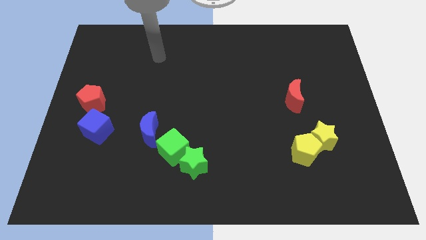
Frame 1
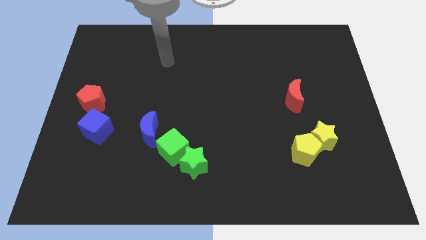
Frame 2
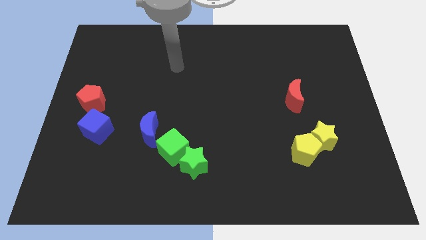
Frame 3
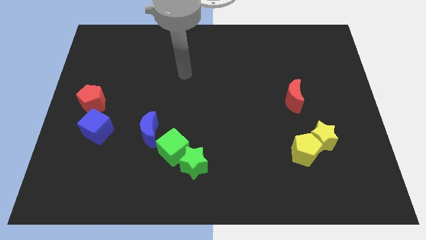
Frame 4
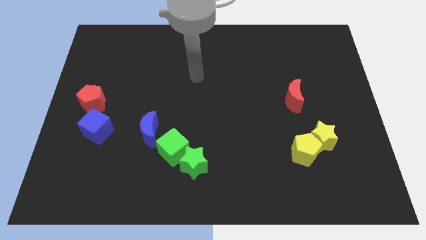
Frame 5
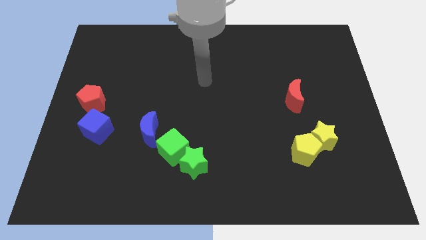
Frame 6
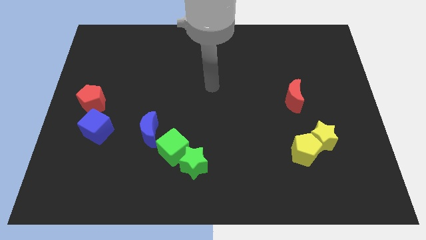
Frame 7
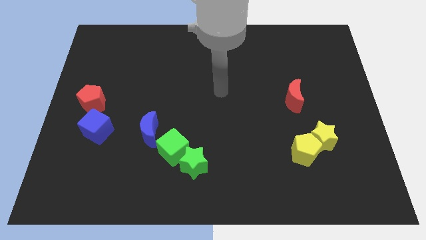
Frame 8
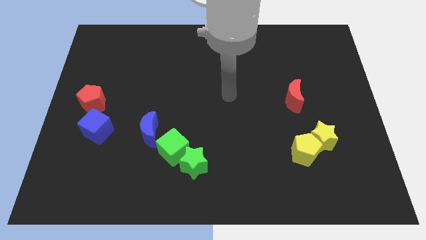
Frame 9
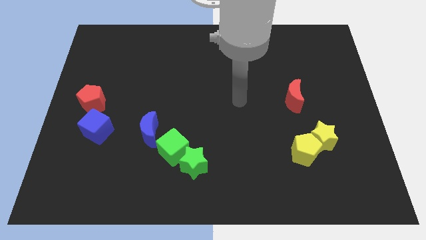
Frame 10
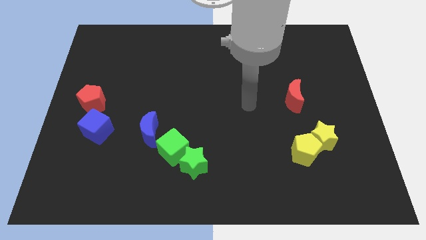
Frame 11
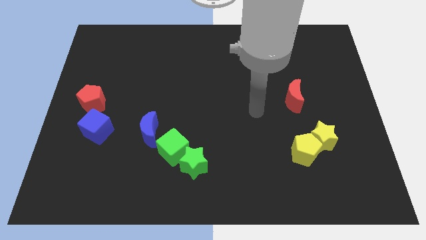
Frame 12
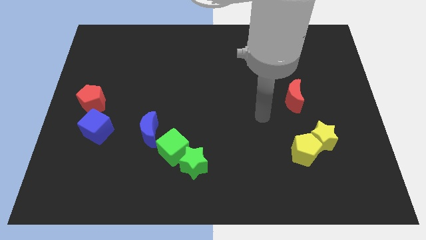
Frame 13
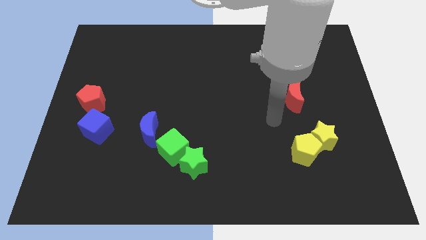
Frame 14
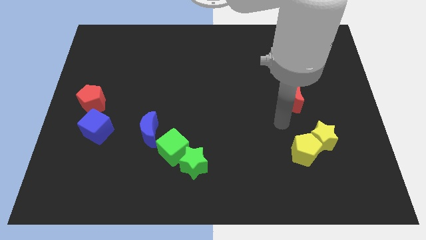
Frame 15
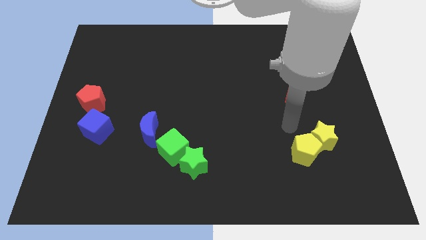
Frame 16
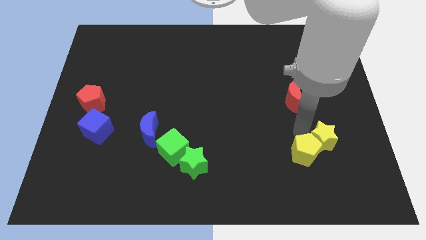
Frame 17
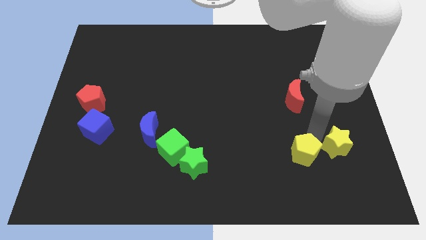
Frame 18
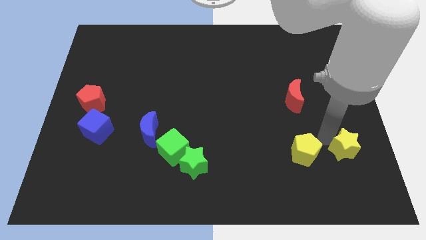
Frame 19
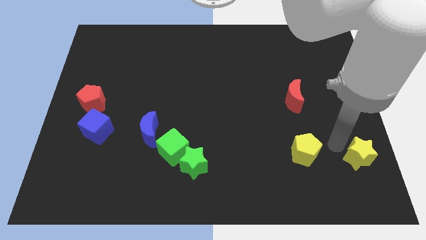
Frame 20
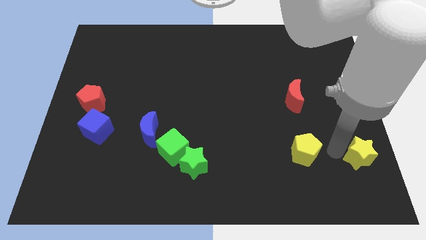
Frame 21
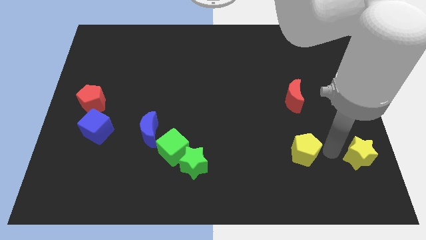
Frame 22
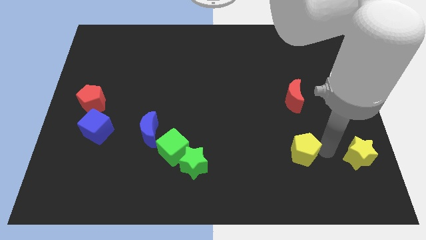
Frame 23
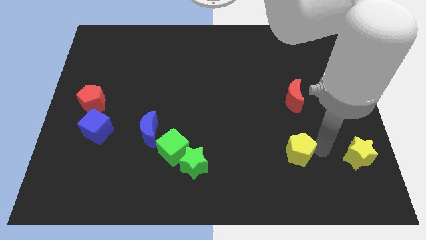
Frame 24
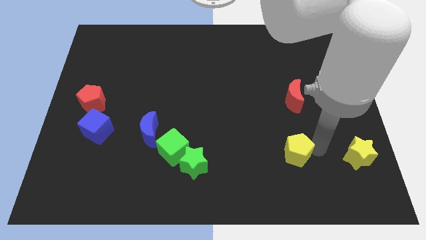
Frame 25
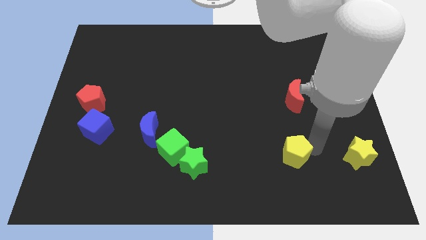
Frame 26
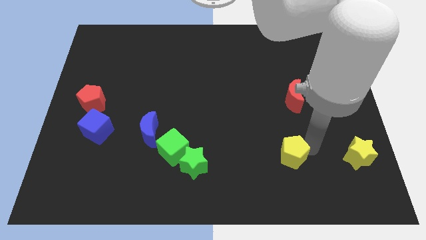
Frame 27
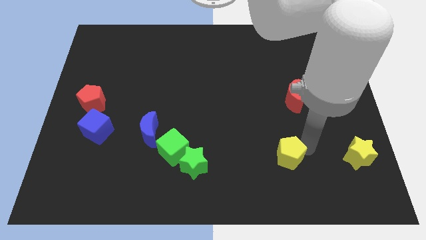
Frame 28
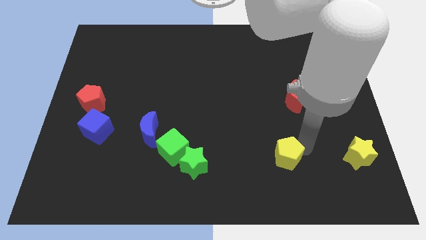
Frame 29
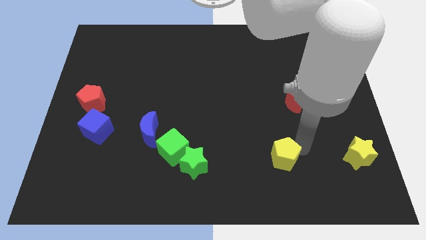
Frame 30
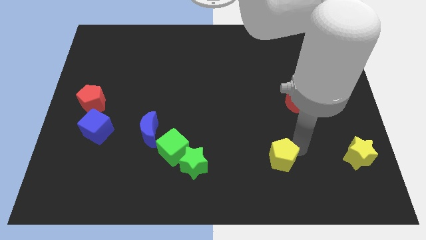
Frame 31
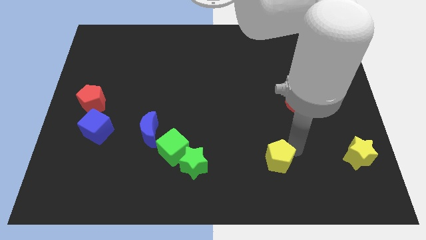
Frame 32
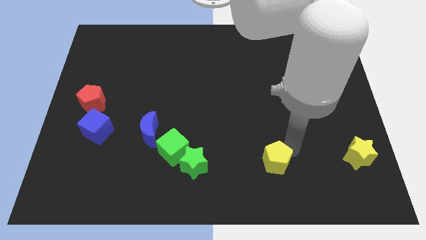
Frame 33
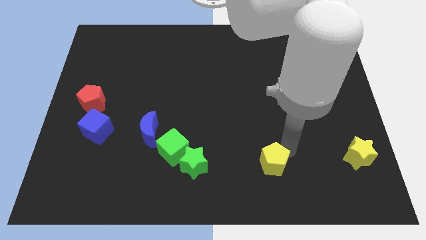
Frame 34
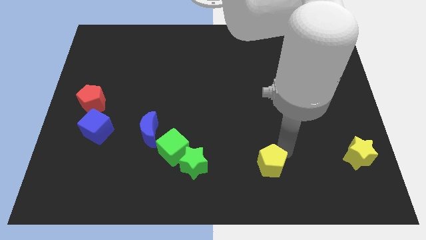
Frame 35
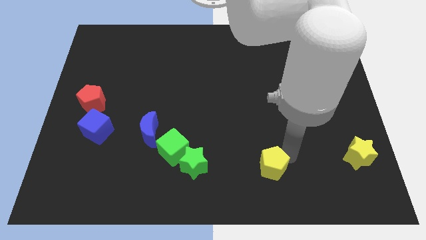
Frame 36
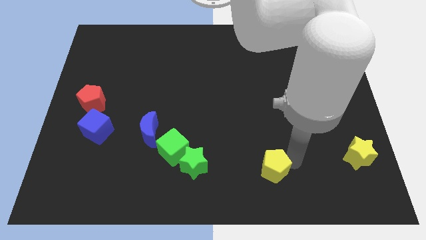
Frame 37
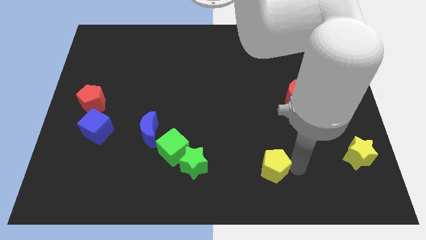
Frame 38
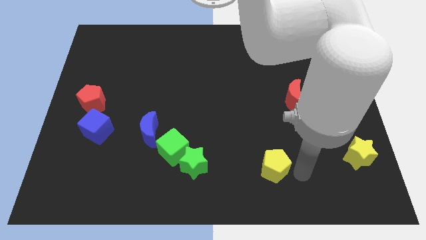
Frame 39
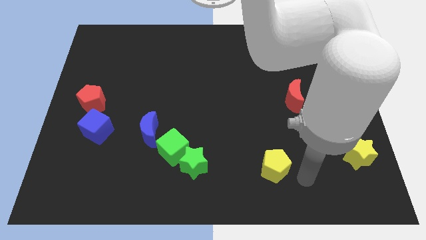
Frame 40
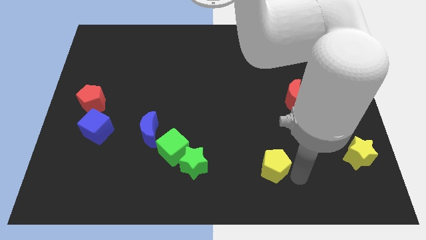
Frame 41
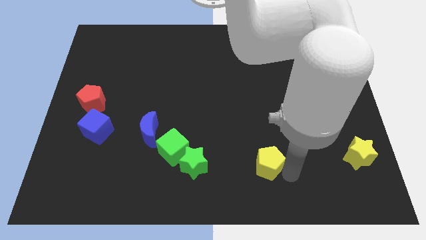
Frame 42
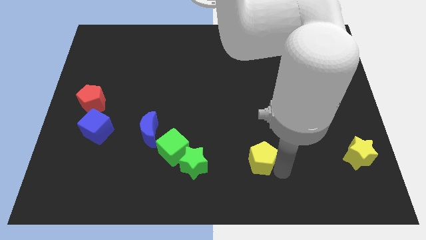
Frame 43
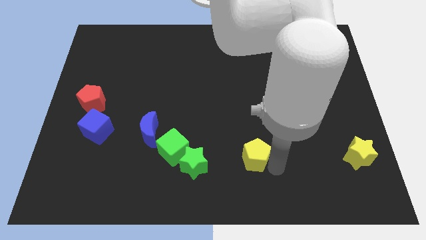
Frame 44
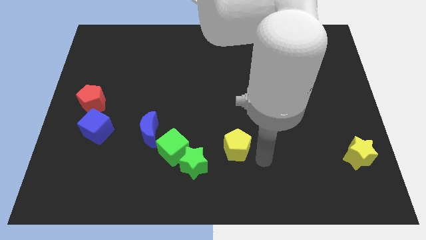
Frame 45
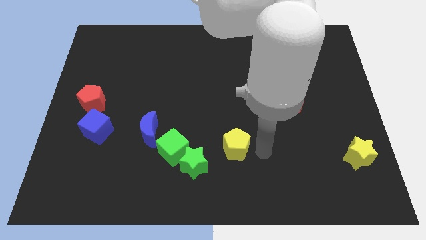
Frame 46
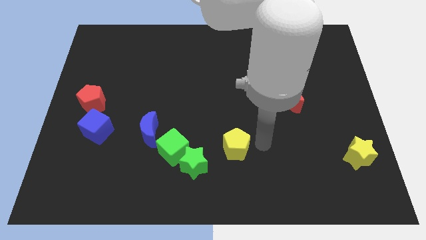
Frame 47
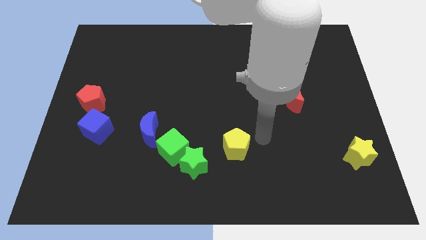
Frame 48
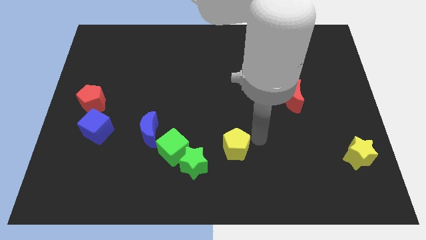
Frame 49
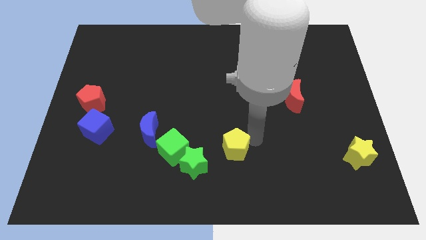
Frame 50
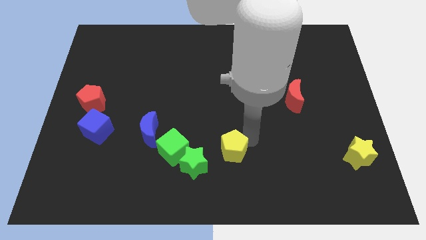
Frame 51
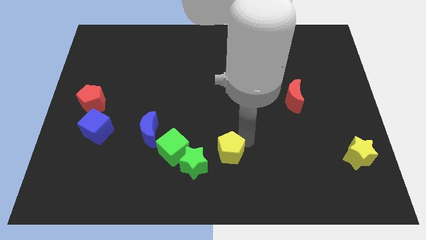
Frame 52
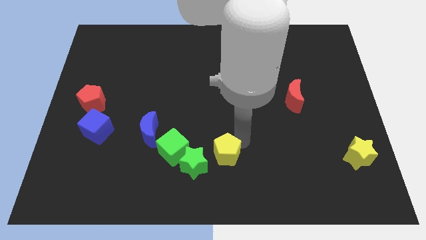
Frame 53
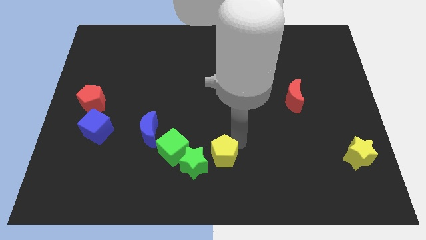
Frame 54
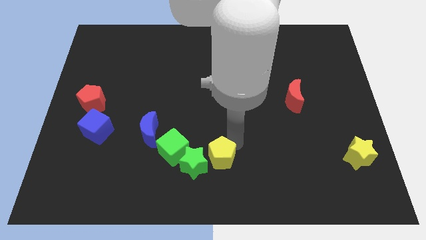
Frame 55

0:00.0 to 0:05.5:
push the yellow pentagon next to the green star
